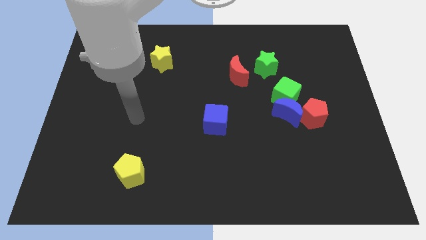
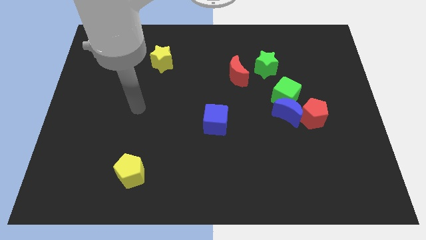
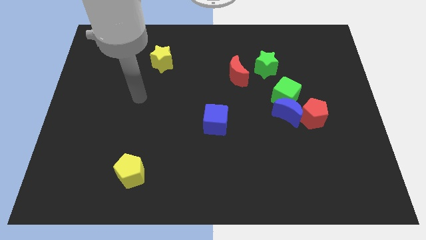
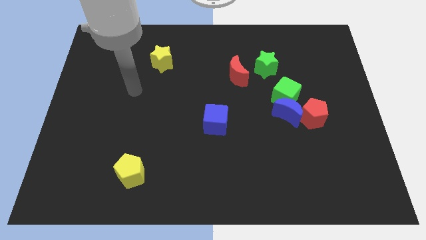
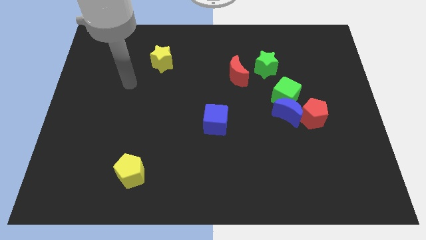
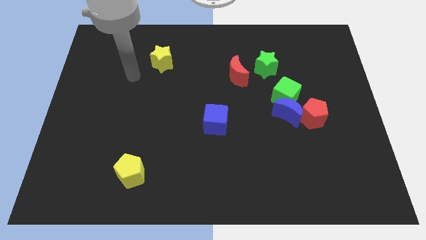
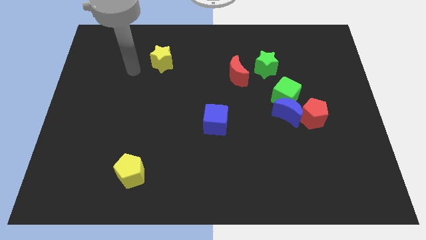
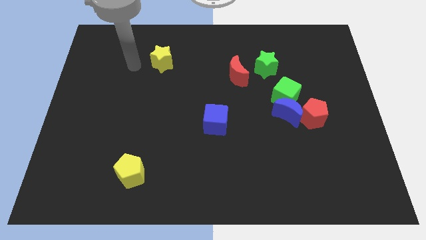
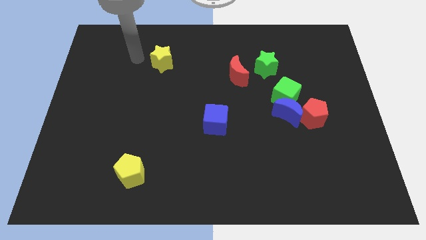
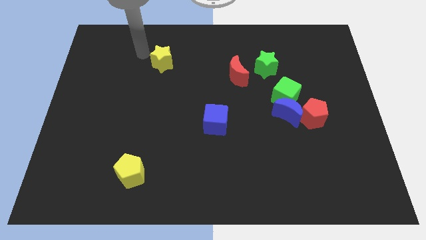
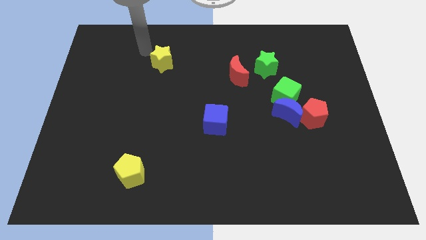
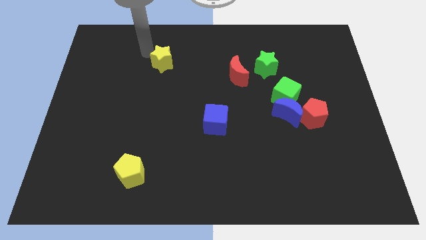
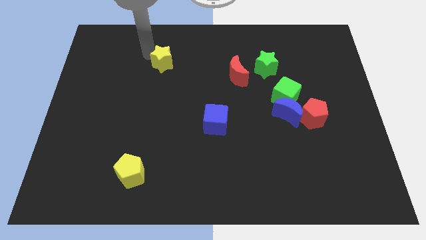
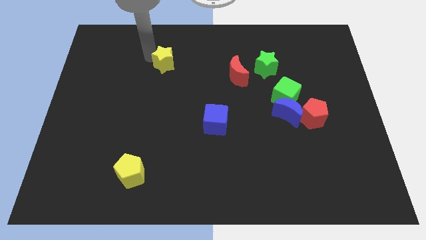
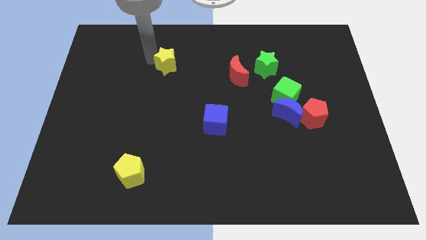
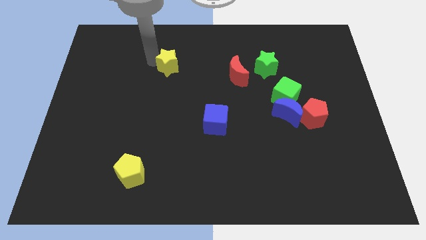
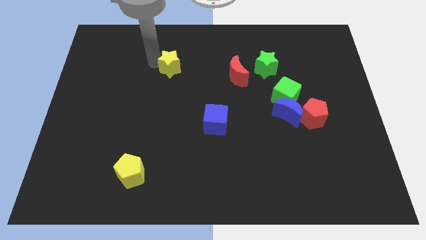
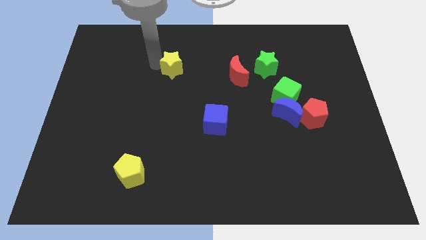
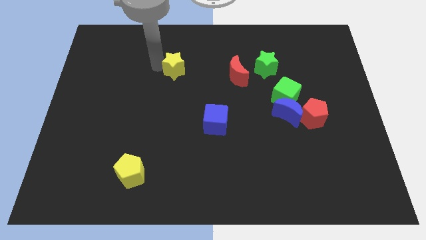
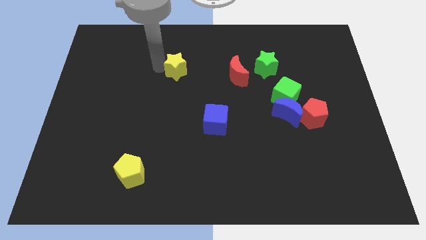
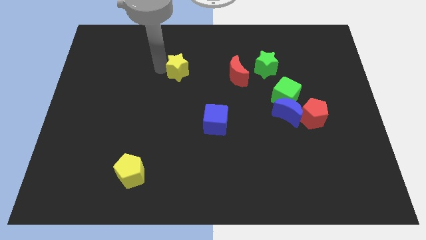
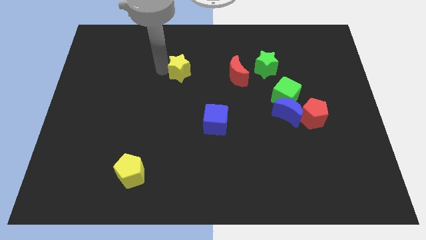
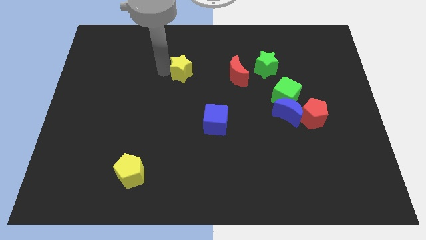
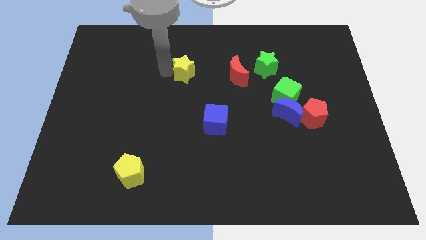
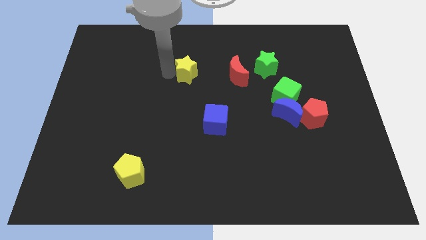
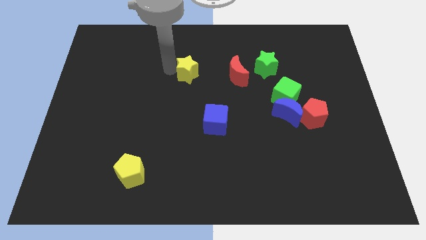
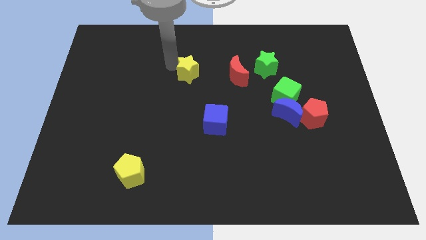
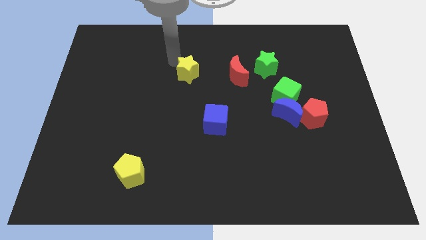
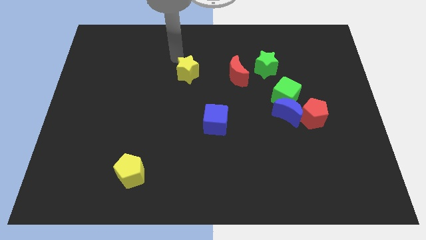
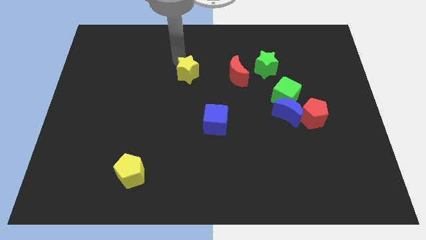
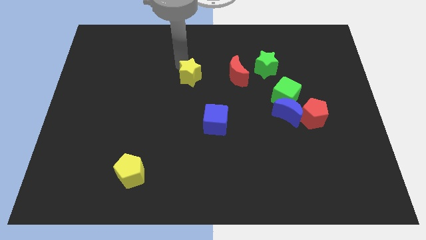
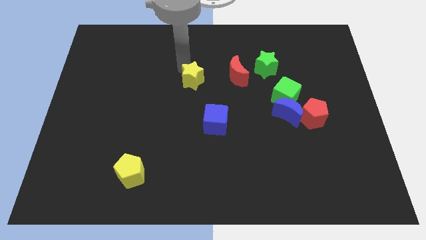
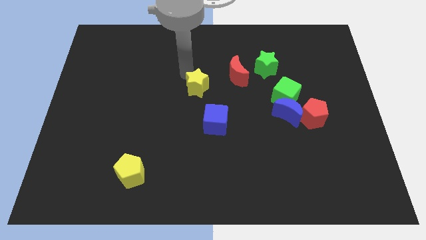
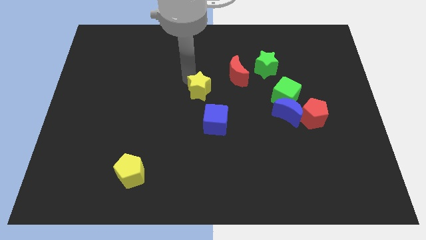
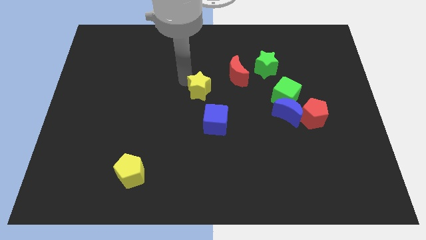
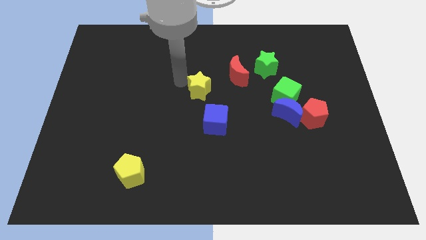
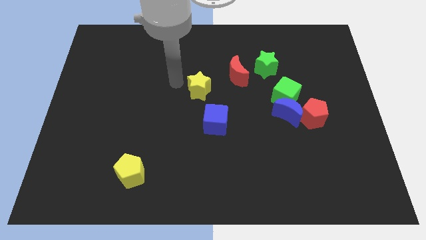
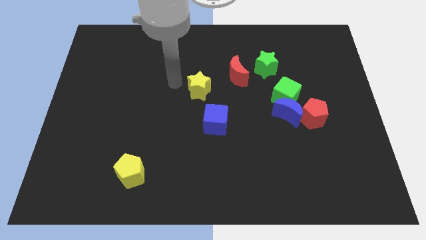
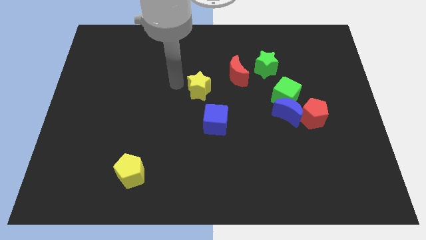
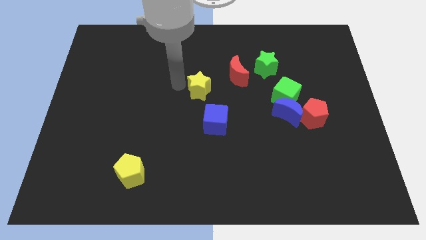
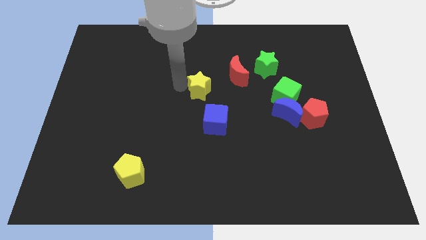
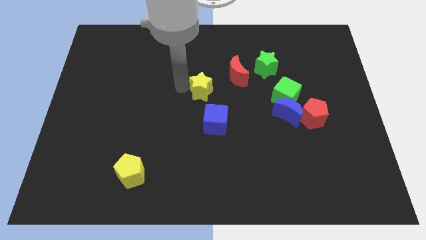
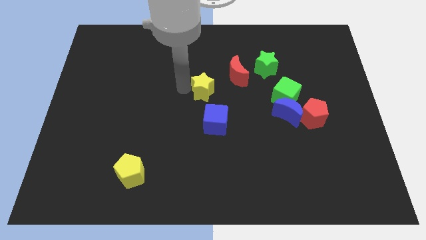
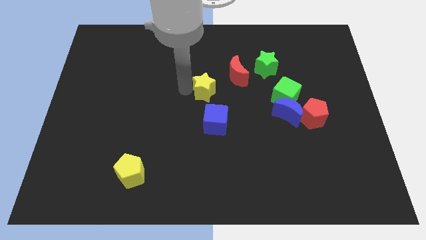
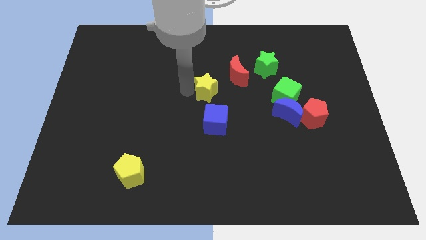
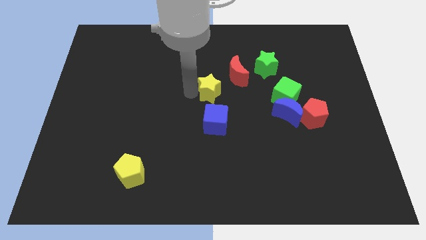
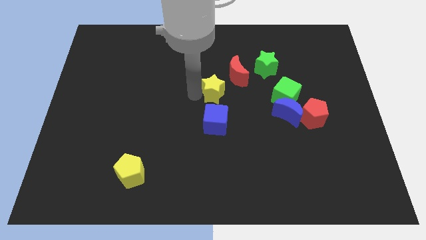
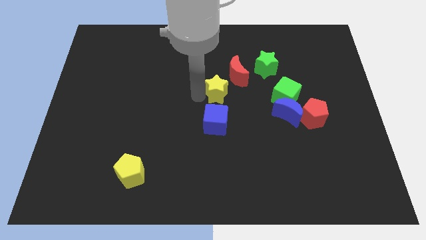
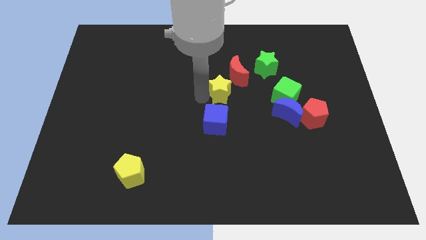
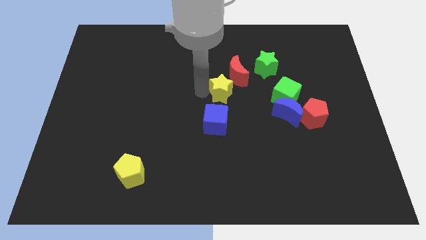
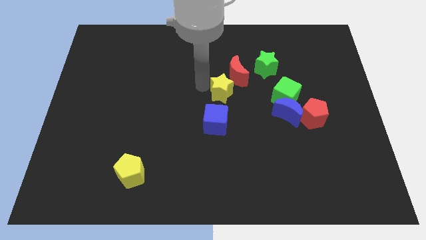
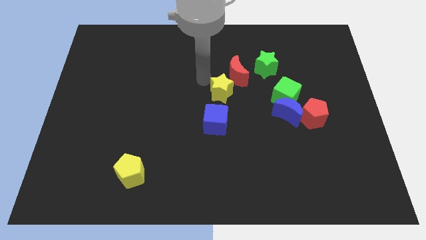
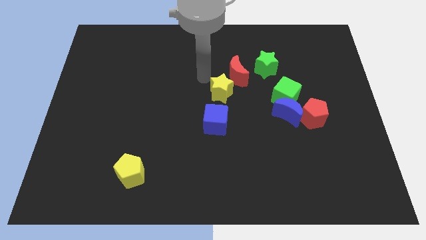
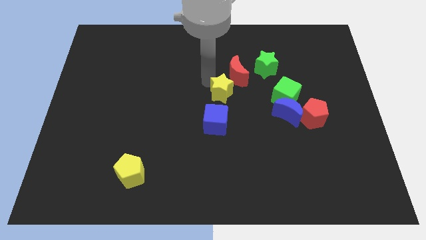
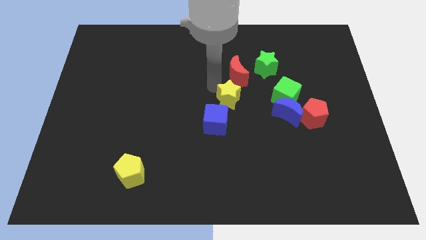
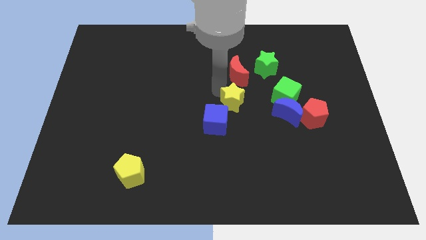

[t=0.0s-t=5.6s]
slide the yellow star to the left side of the blue moon

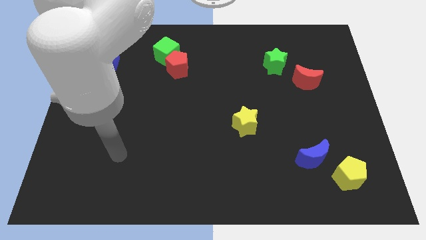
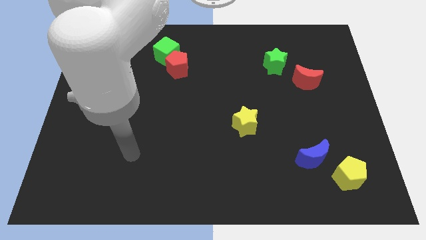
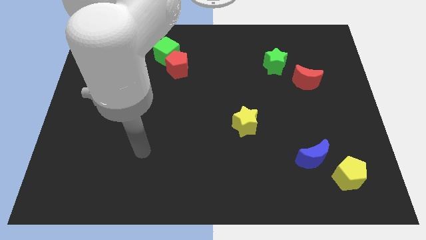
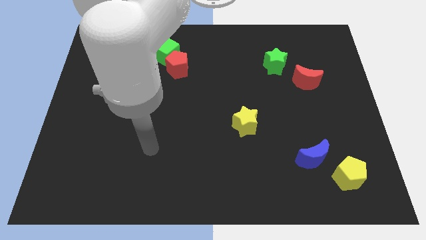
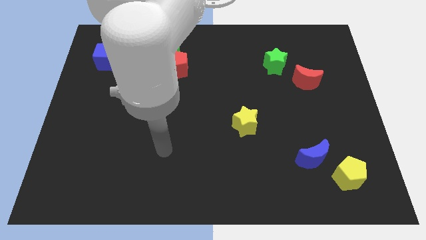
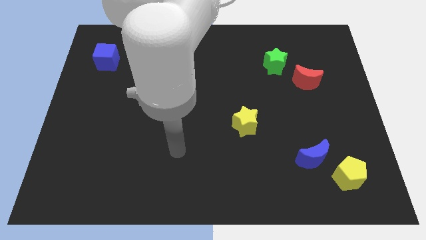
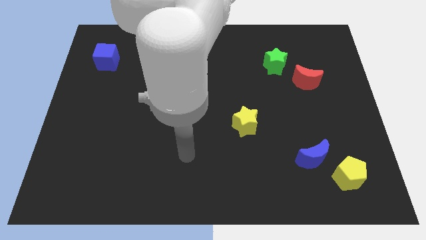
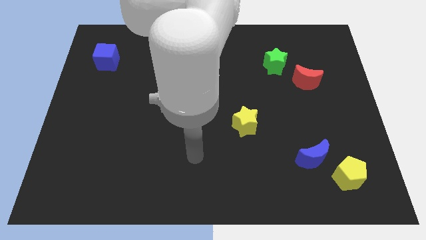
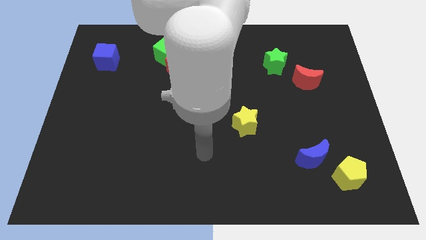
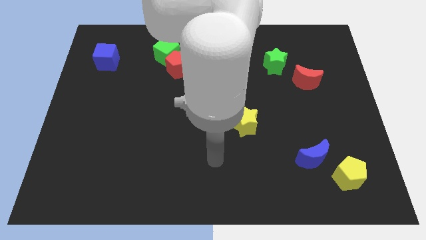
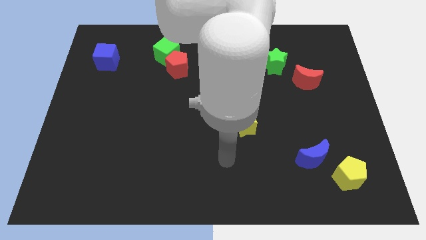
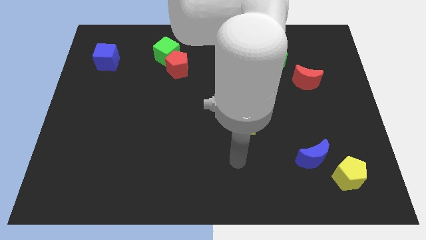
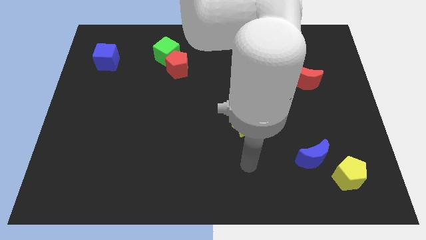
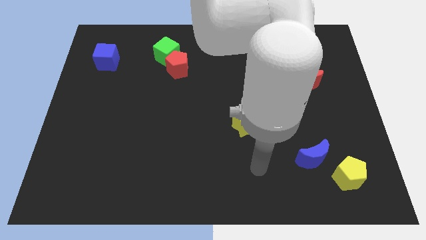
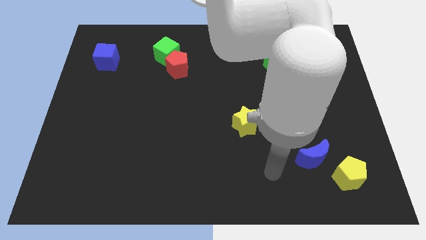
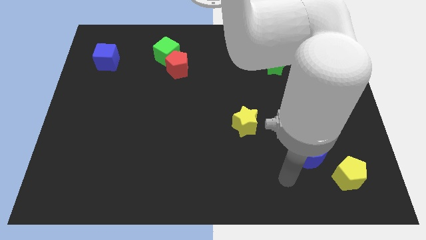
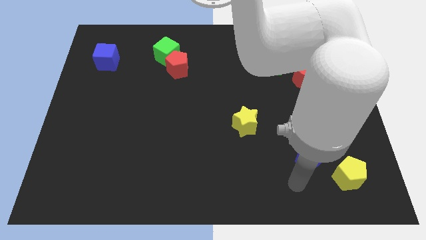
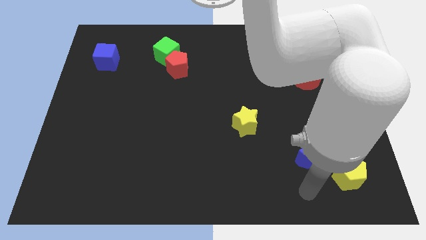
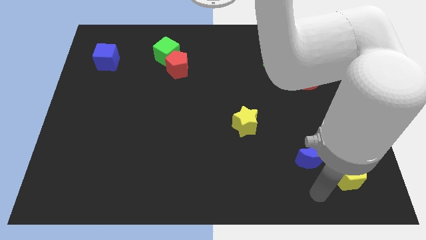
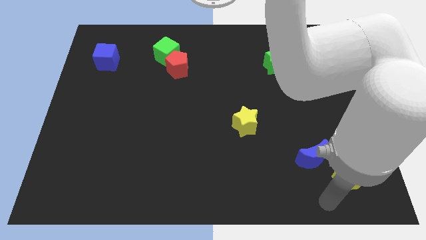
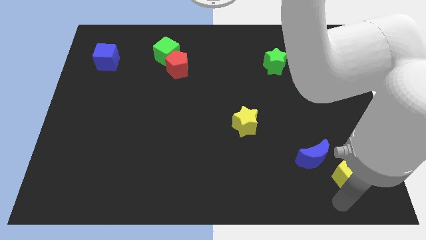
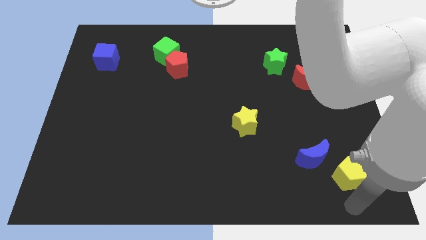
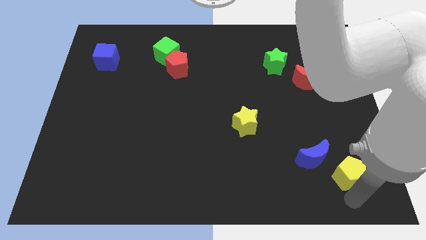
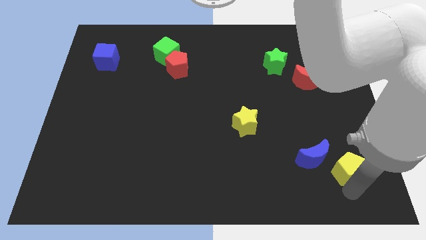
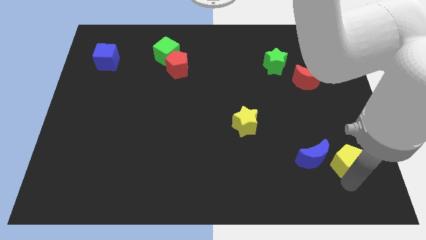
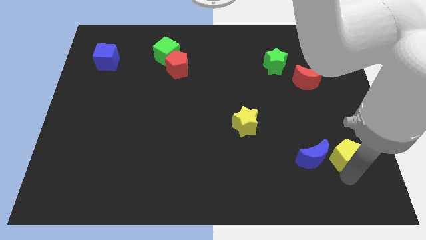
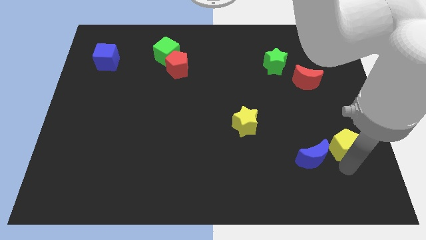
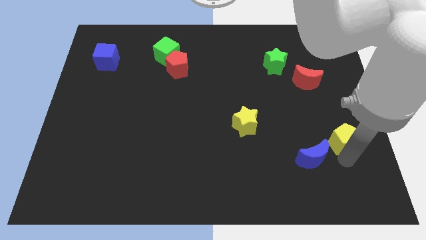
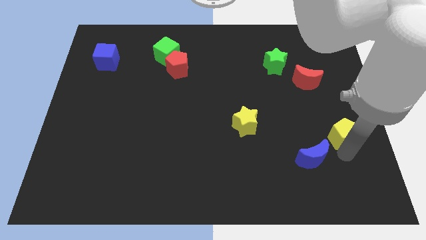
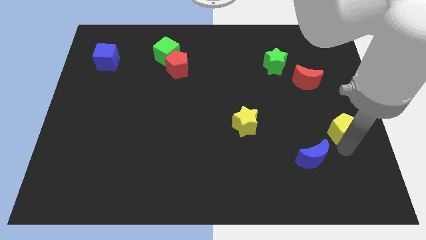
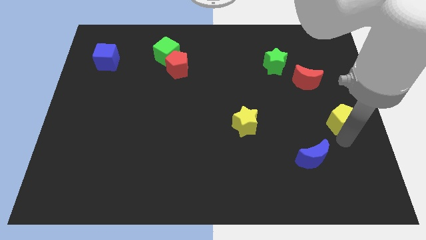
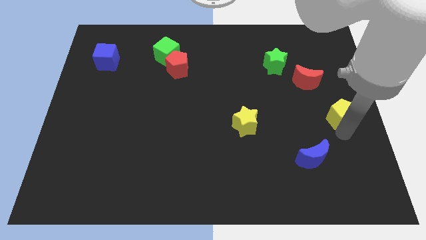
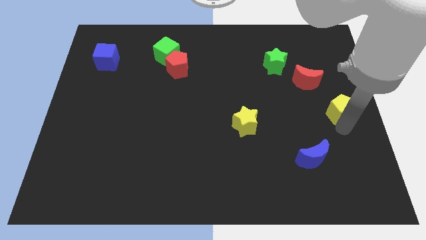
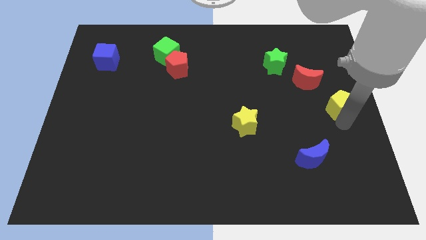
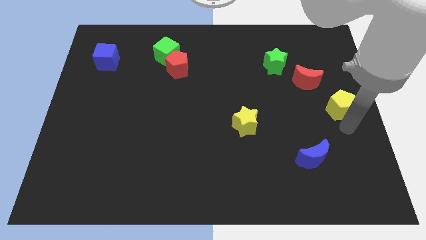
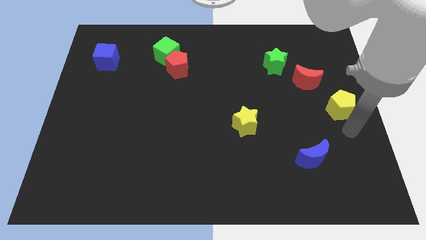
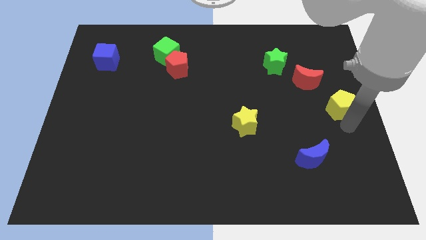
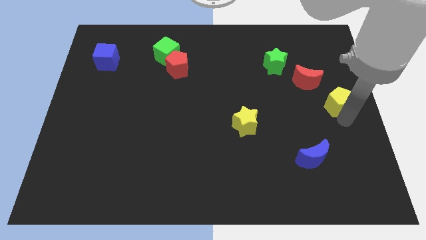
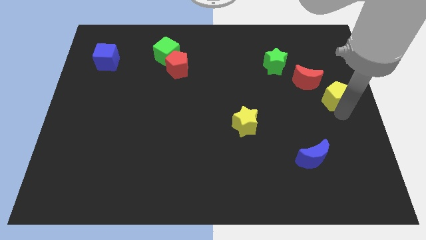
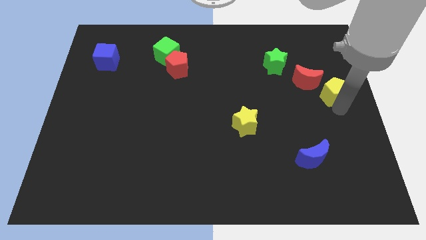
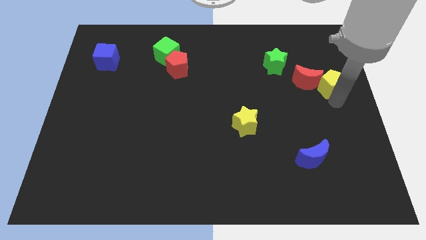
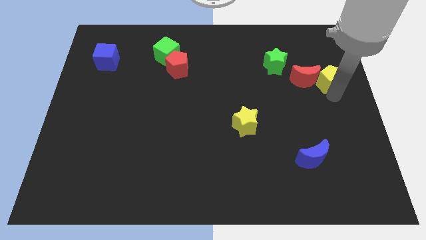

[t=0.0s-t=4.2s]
put the yellow pentagon to the top right of the red moon
